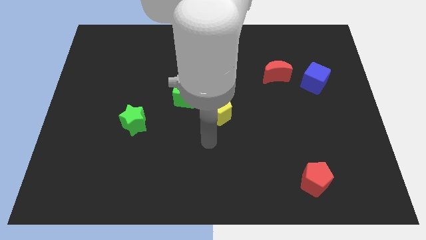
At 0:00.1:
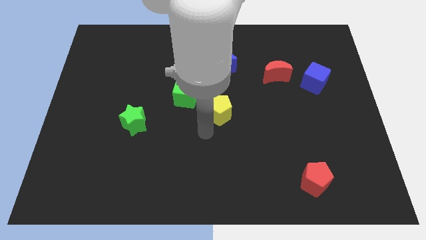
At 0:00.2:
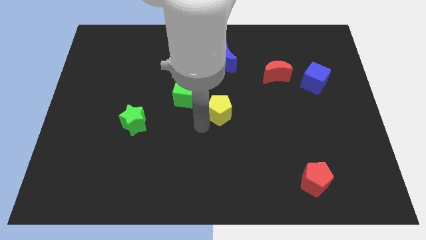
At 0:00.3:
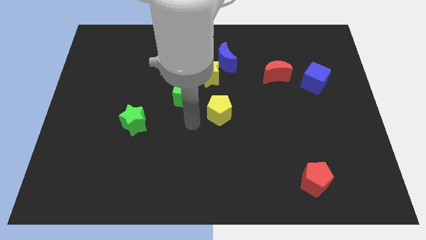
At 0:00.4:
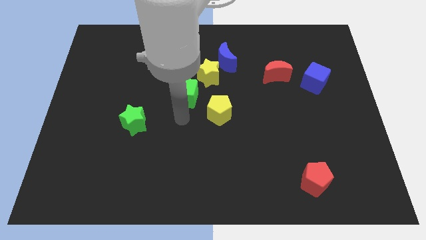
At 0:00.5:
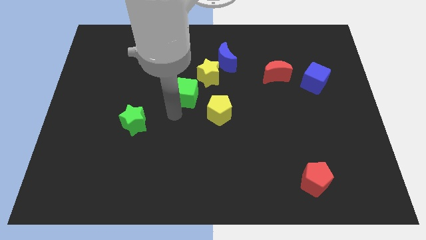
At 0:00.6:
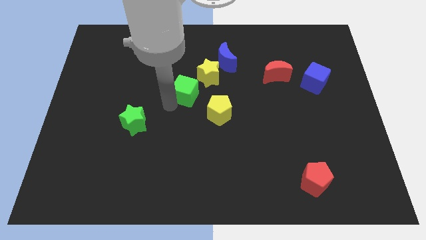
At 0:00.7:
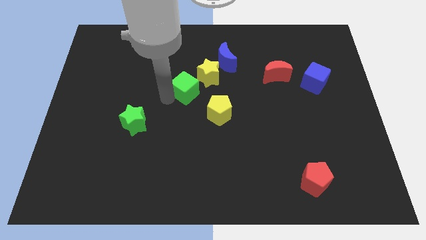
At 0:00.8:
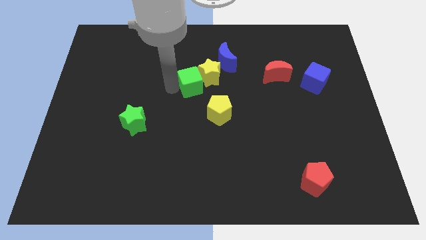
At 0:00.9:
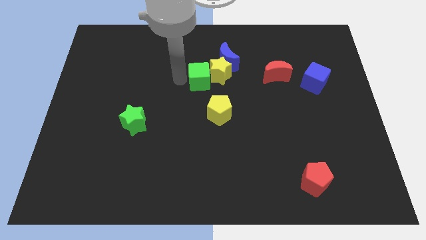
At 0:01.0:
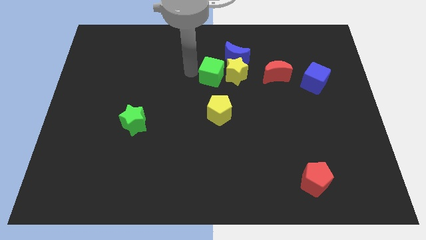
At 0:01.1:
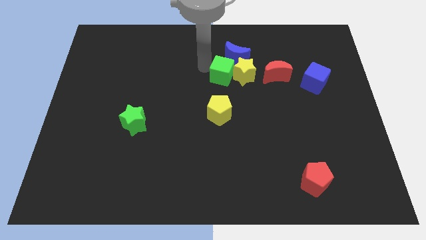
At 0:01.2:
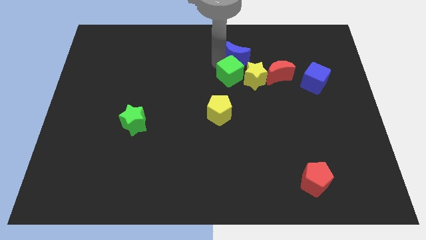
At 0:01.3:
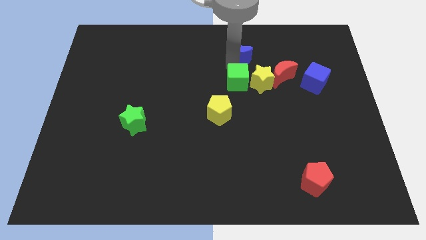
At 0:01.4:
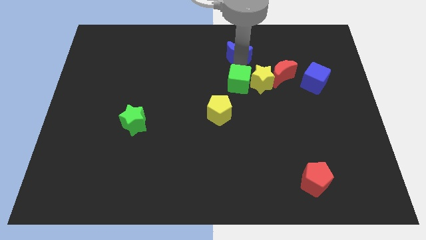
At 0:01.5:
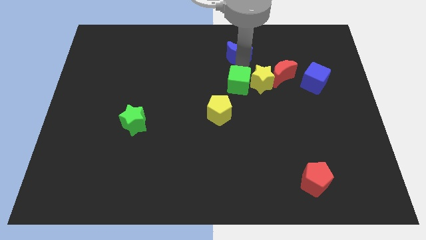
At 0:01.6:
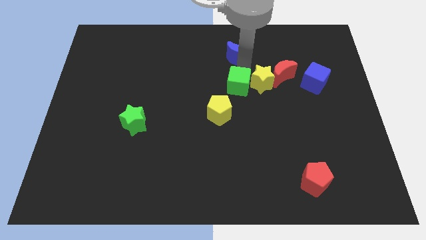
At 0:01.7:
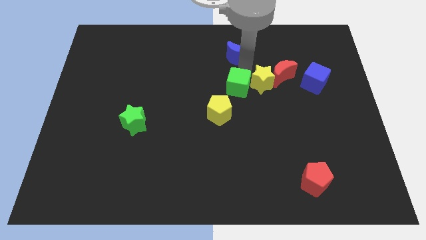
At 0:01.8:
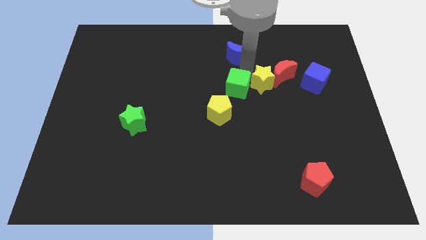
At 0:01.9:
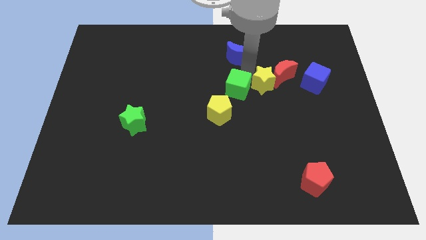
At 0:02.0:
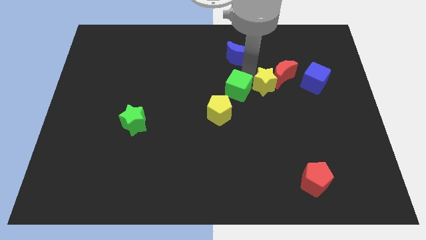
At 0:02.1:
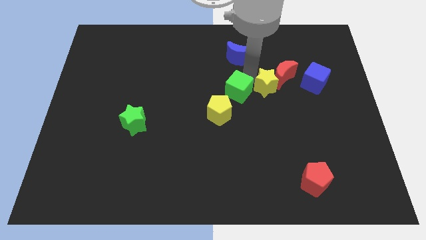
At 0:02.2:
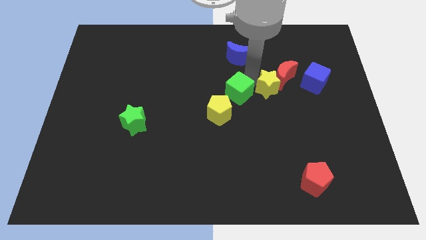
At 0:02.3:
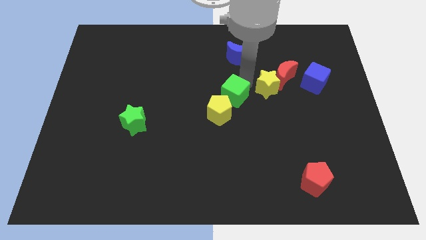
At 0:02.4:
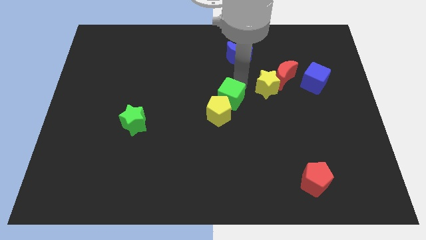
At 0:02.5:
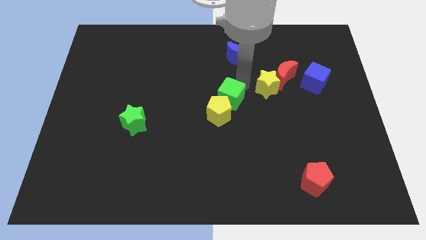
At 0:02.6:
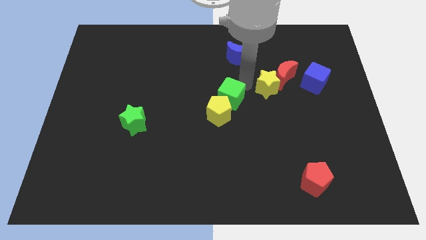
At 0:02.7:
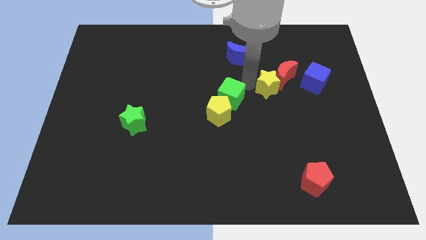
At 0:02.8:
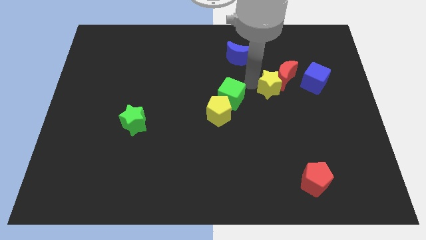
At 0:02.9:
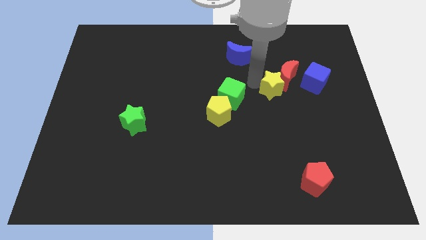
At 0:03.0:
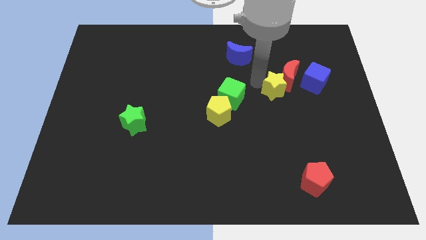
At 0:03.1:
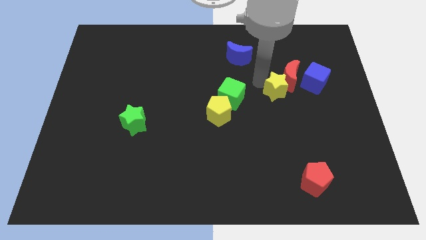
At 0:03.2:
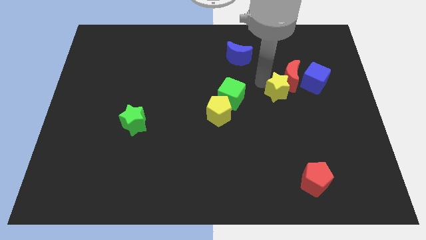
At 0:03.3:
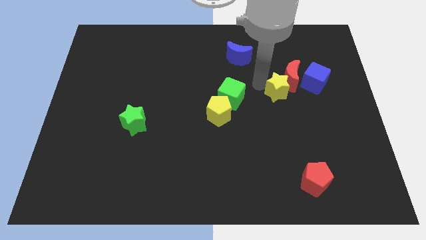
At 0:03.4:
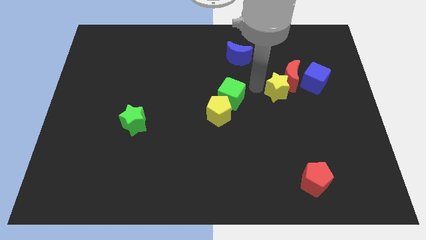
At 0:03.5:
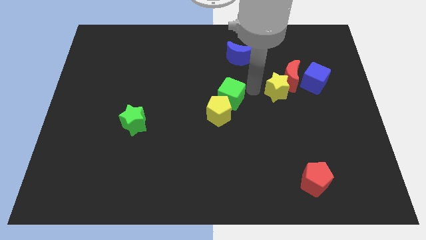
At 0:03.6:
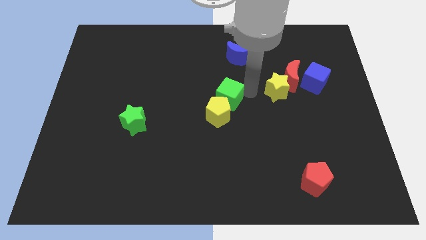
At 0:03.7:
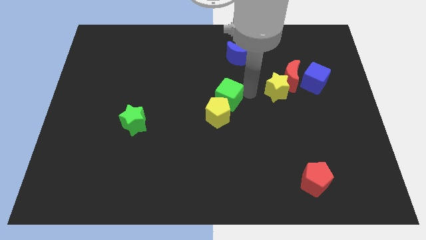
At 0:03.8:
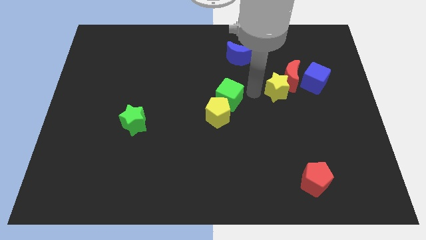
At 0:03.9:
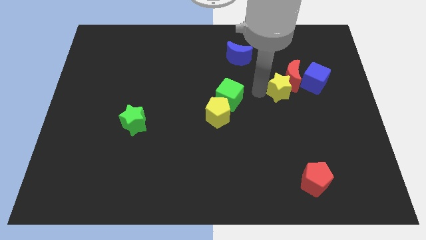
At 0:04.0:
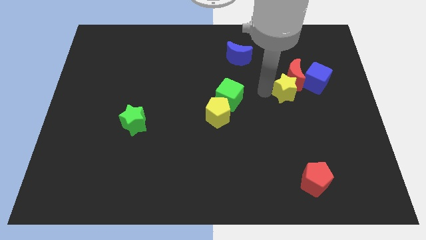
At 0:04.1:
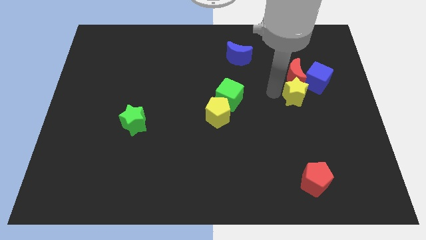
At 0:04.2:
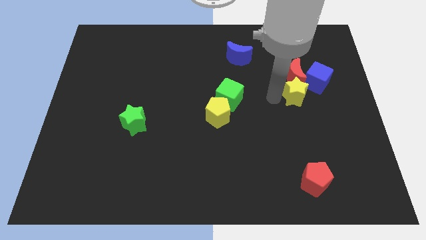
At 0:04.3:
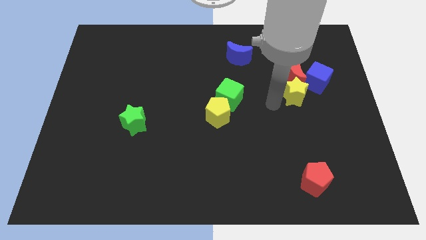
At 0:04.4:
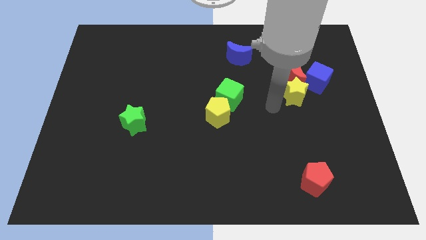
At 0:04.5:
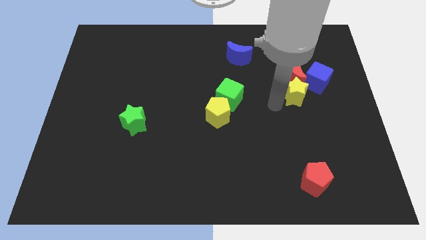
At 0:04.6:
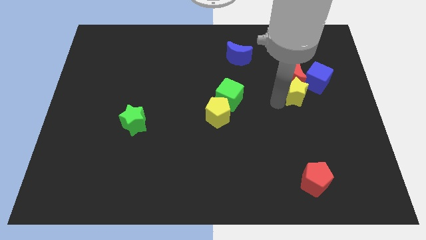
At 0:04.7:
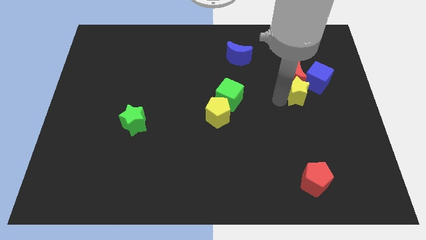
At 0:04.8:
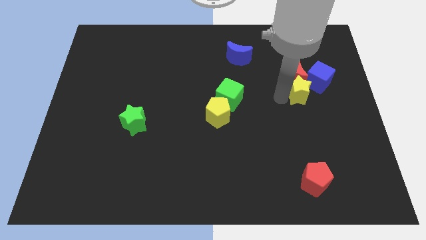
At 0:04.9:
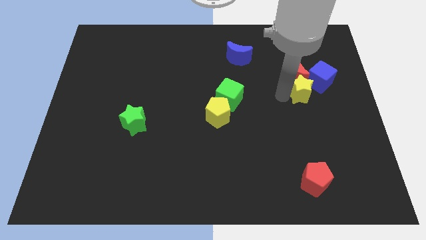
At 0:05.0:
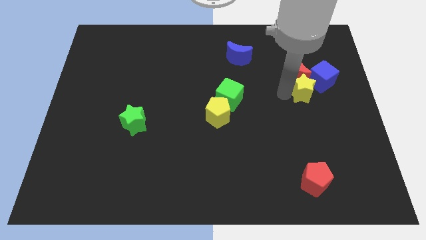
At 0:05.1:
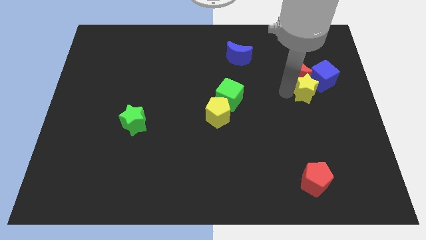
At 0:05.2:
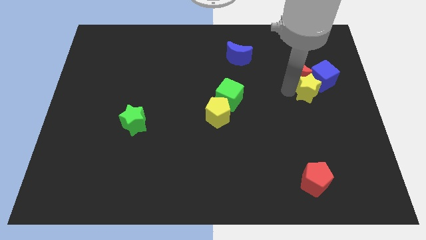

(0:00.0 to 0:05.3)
slide the yellow star to the blue cube

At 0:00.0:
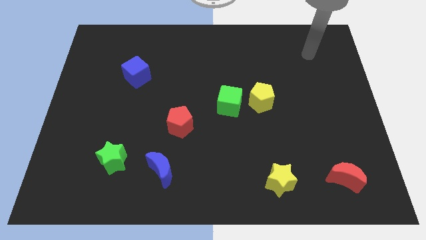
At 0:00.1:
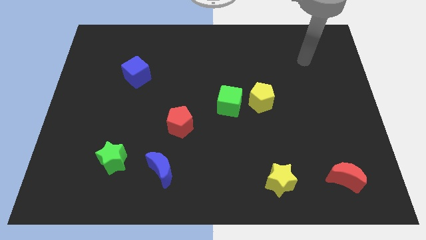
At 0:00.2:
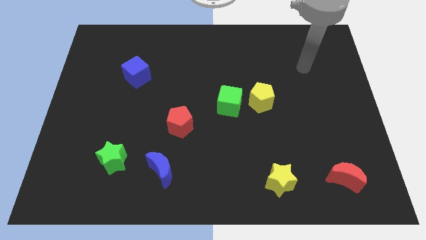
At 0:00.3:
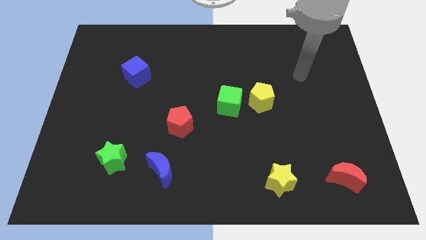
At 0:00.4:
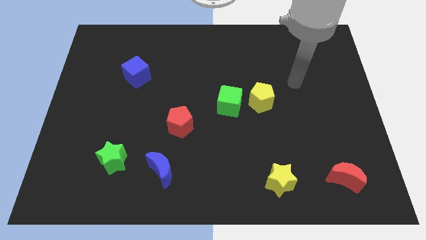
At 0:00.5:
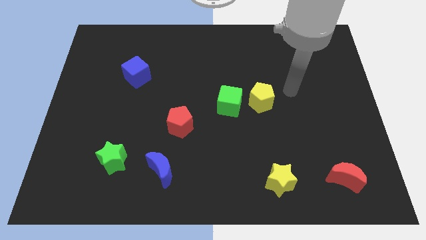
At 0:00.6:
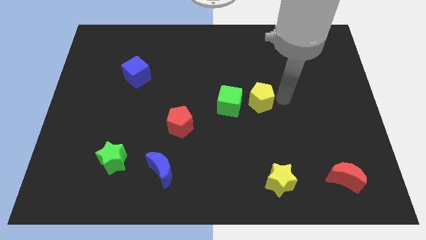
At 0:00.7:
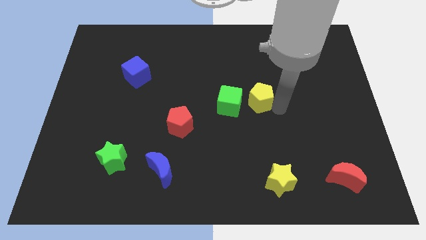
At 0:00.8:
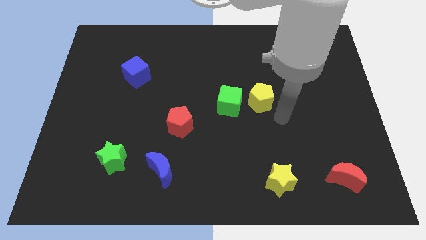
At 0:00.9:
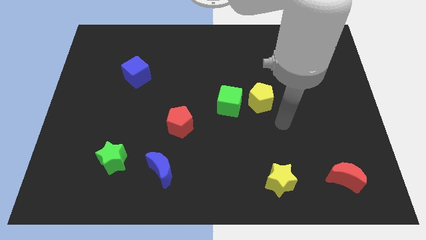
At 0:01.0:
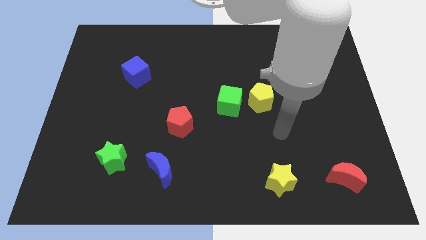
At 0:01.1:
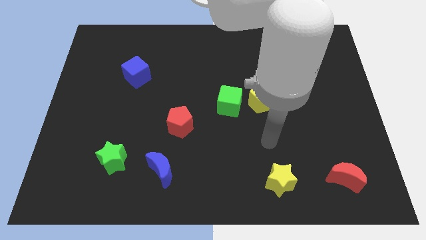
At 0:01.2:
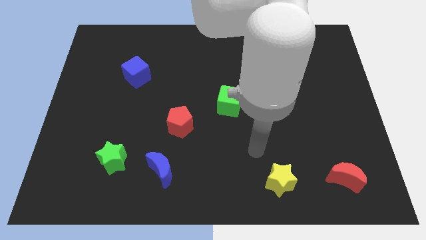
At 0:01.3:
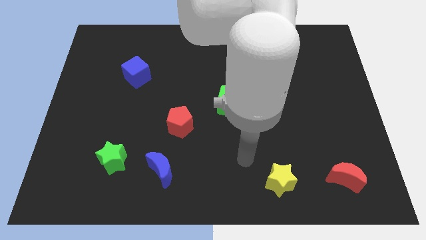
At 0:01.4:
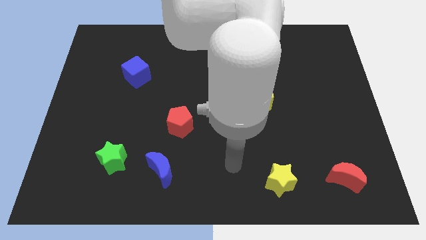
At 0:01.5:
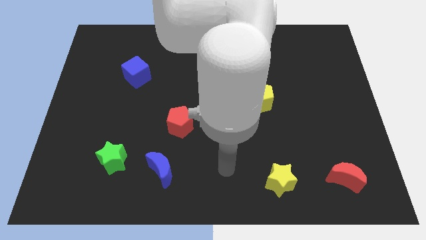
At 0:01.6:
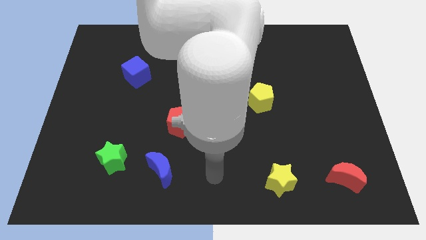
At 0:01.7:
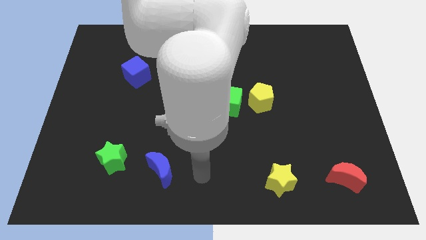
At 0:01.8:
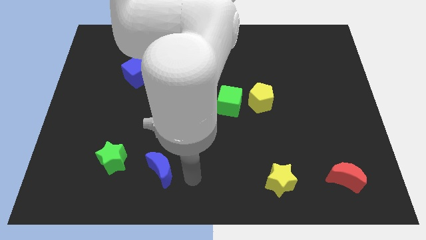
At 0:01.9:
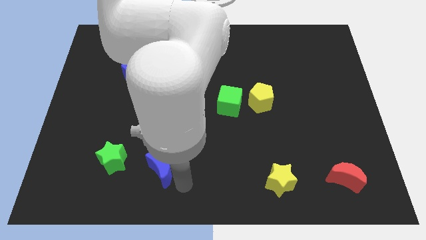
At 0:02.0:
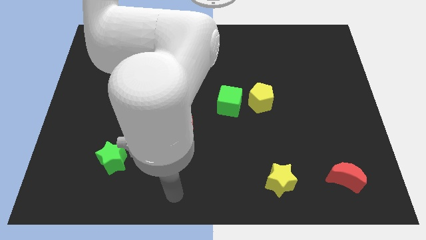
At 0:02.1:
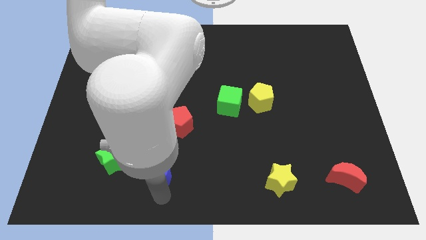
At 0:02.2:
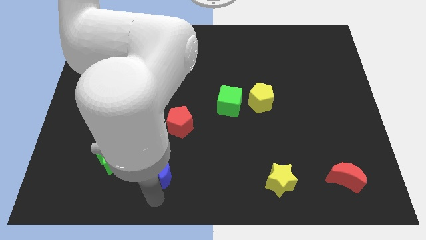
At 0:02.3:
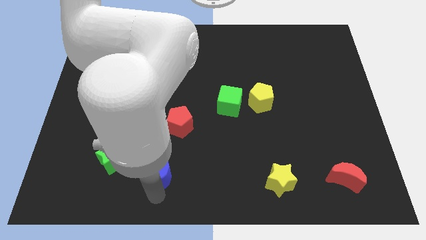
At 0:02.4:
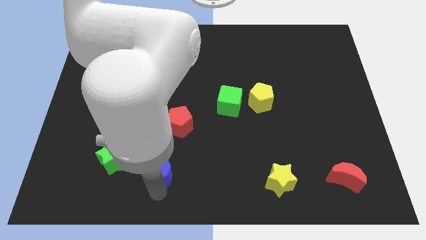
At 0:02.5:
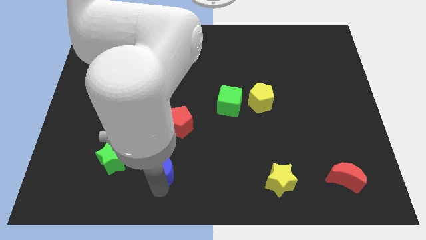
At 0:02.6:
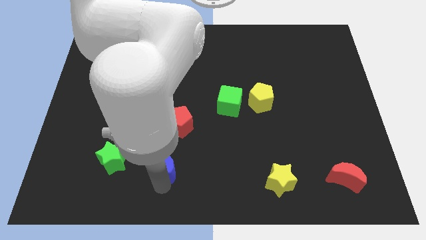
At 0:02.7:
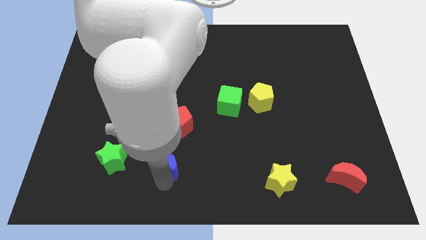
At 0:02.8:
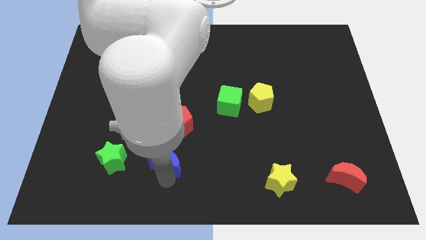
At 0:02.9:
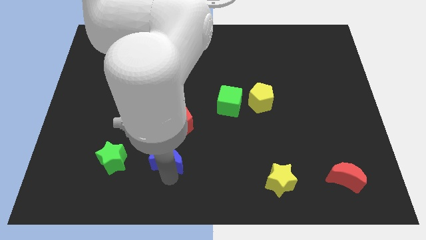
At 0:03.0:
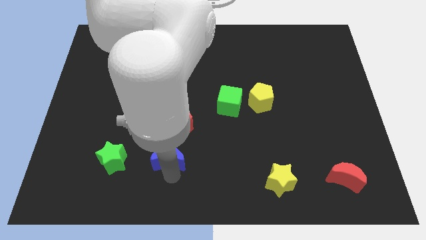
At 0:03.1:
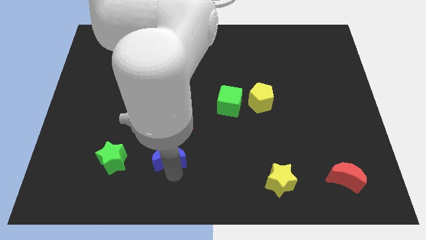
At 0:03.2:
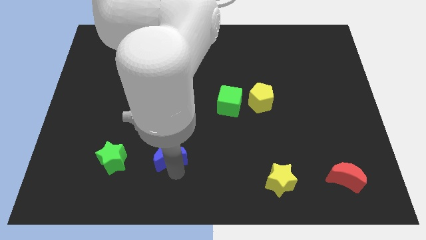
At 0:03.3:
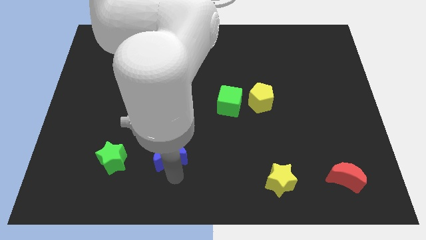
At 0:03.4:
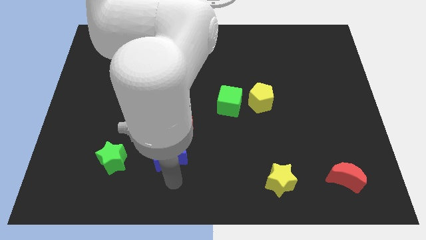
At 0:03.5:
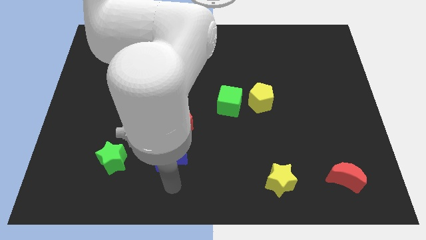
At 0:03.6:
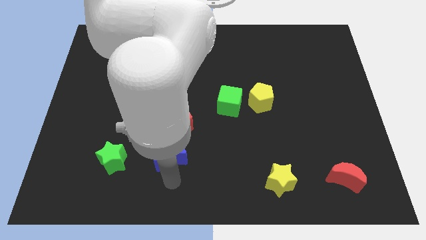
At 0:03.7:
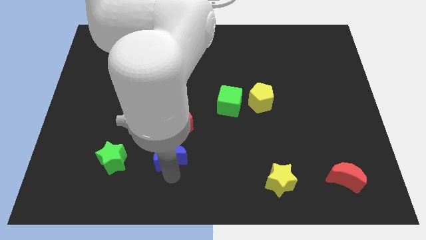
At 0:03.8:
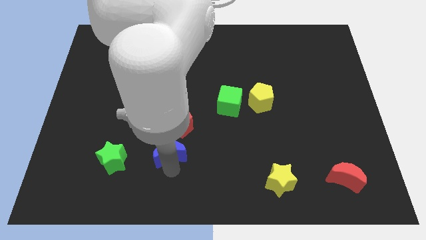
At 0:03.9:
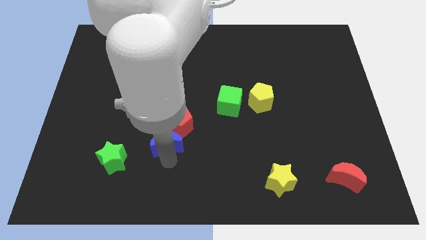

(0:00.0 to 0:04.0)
push the blue moon close to the red pentagon
